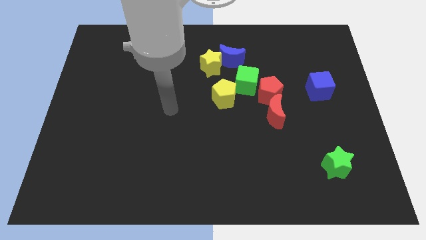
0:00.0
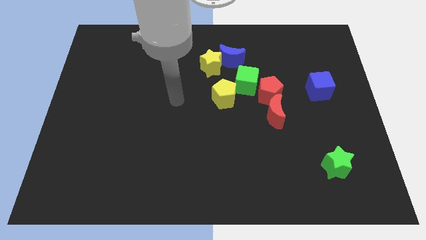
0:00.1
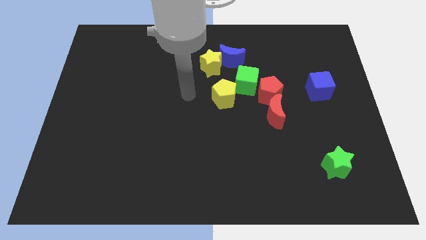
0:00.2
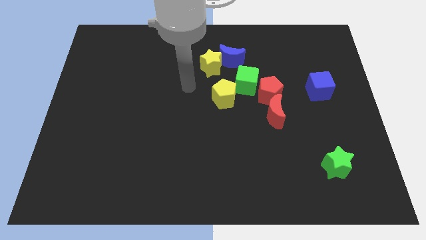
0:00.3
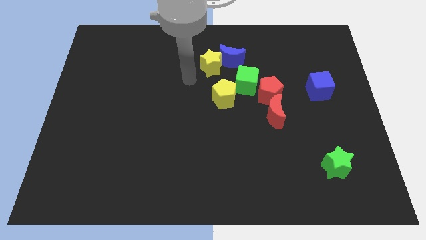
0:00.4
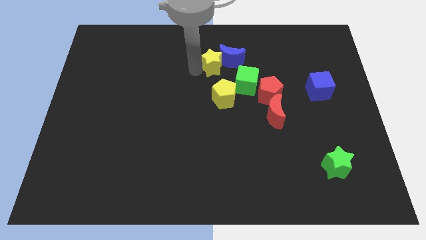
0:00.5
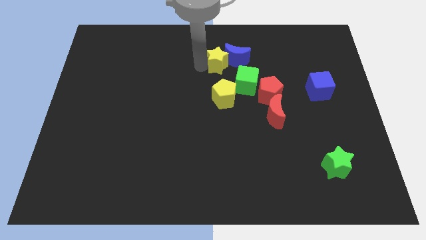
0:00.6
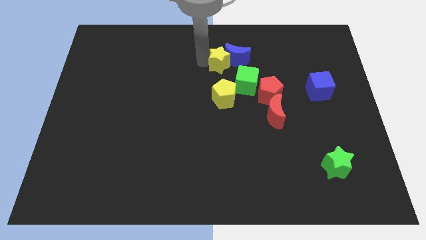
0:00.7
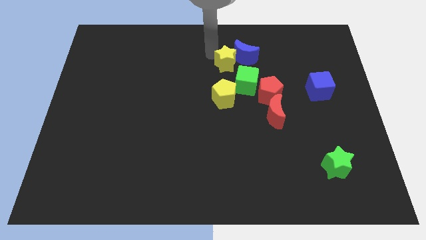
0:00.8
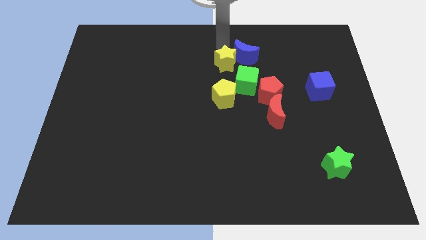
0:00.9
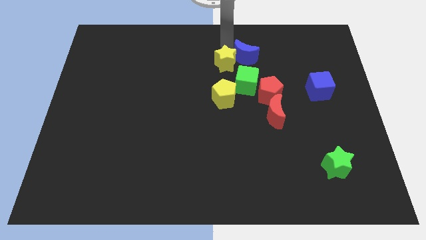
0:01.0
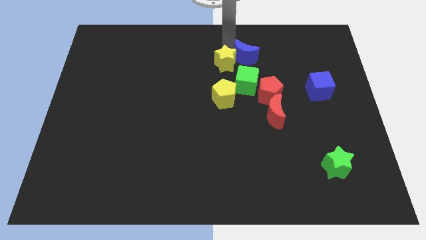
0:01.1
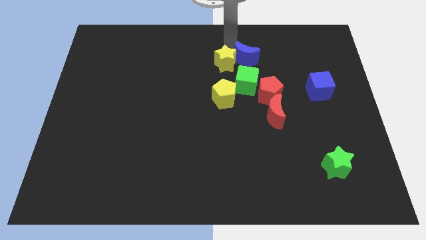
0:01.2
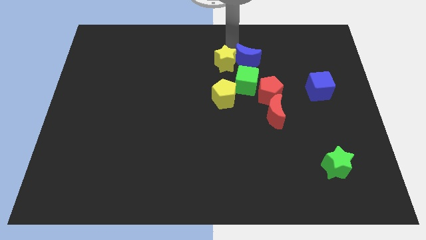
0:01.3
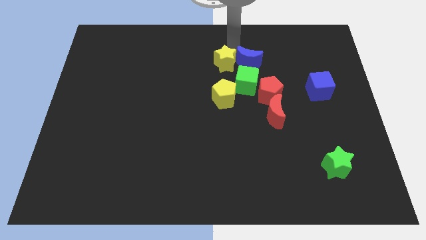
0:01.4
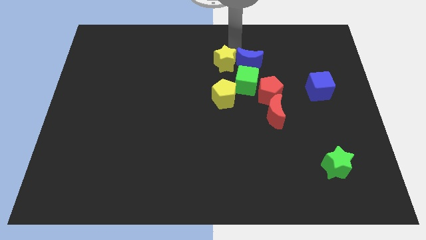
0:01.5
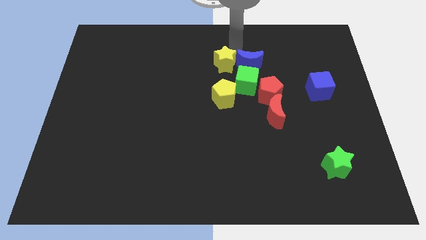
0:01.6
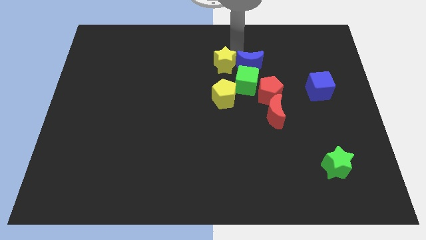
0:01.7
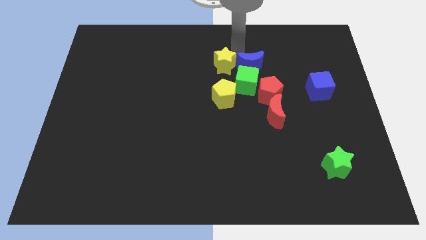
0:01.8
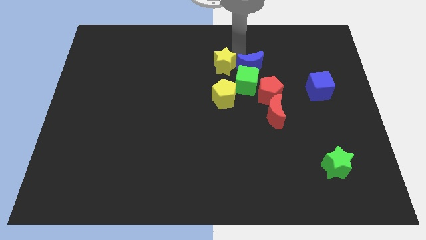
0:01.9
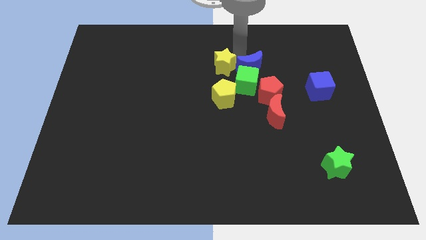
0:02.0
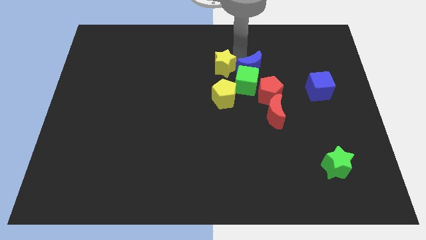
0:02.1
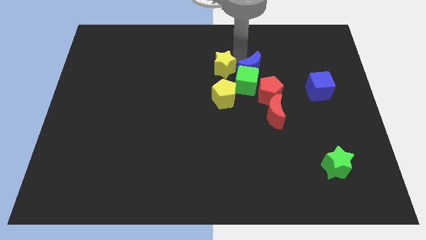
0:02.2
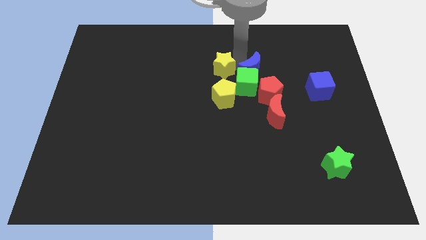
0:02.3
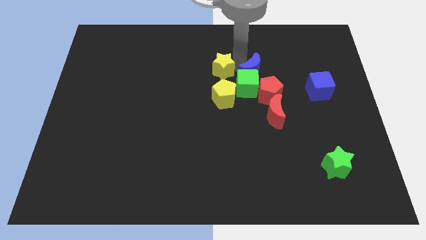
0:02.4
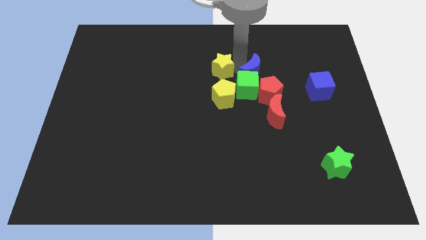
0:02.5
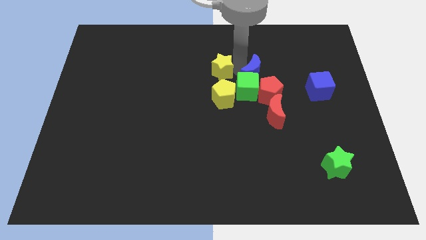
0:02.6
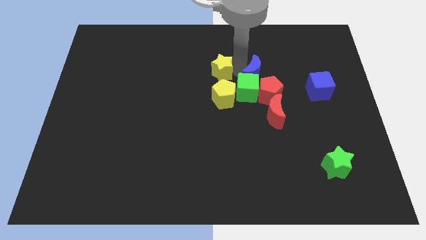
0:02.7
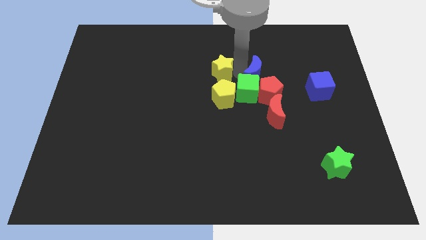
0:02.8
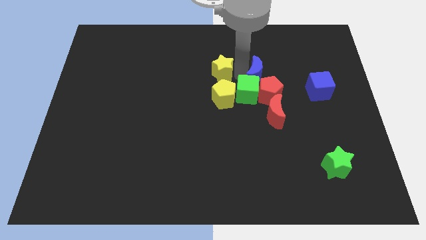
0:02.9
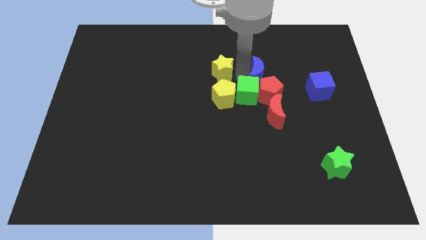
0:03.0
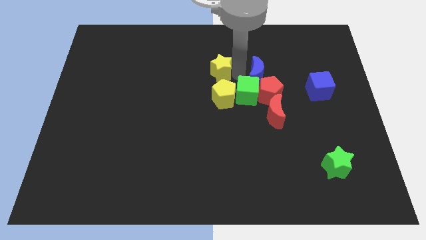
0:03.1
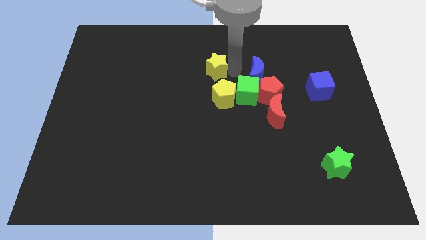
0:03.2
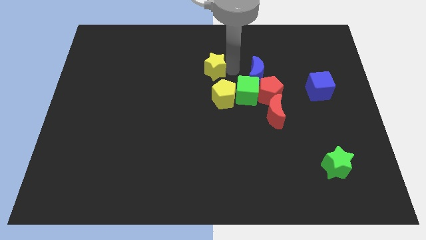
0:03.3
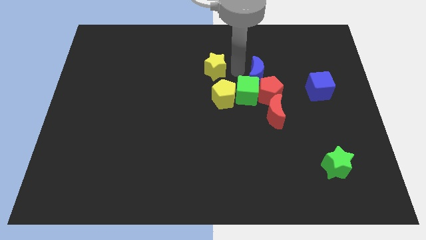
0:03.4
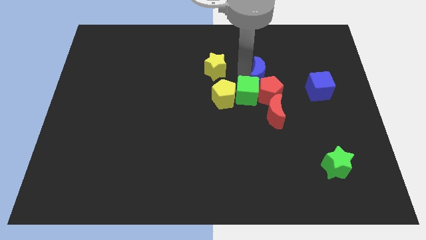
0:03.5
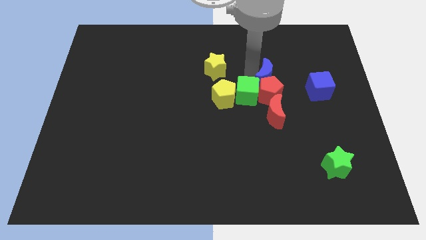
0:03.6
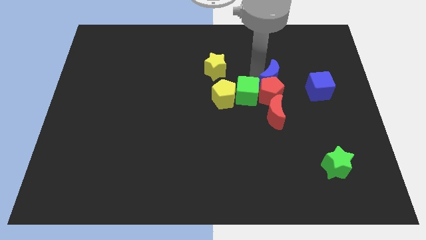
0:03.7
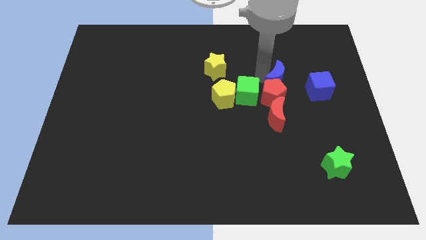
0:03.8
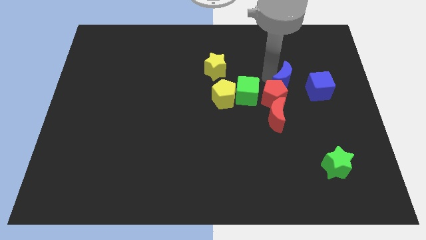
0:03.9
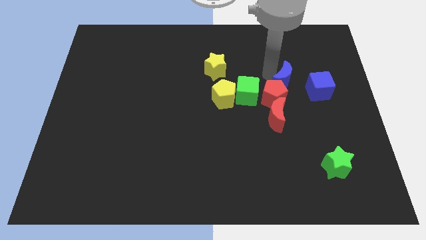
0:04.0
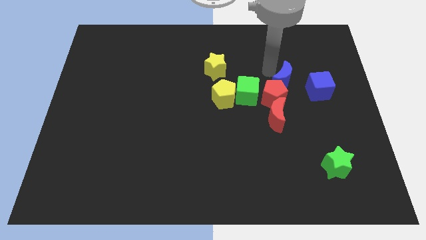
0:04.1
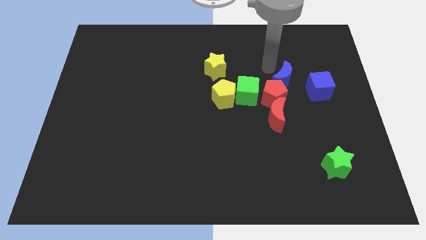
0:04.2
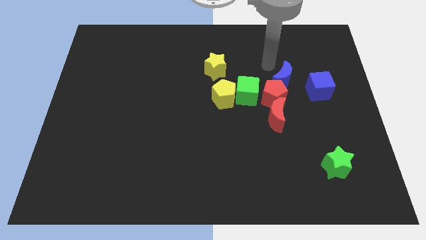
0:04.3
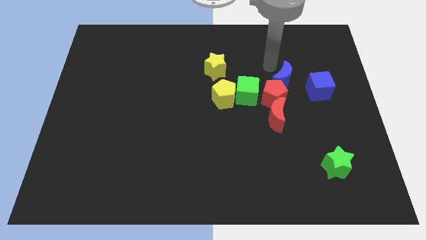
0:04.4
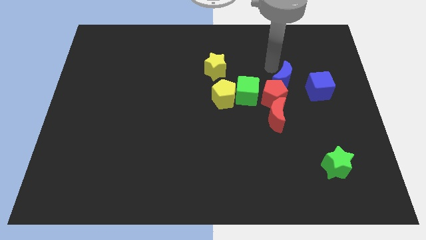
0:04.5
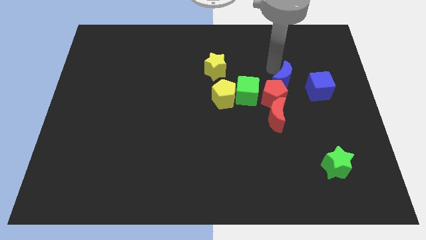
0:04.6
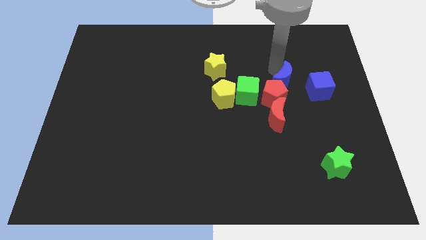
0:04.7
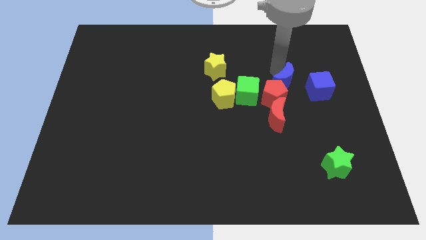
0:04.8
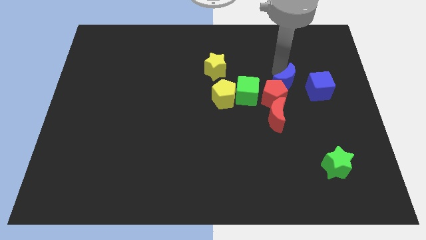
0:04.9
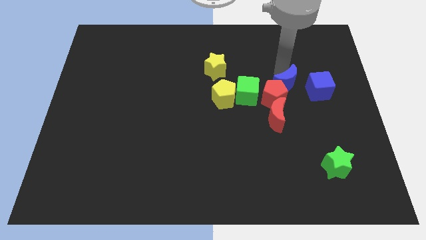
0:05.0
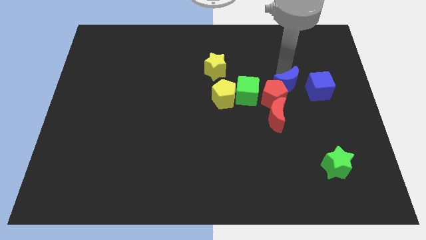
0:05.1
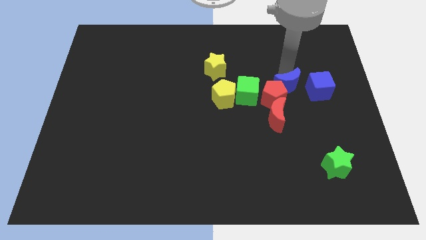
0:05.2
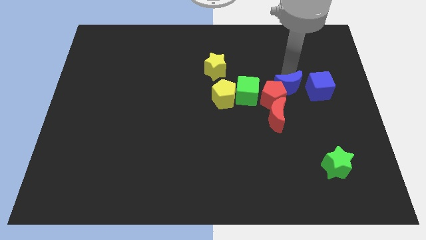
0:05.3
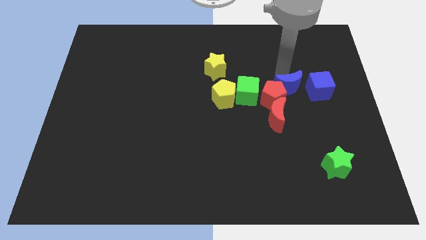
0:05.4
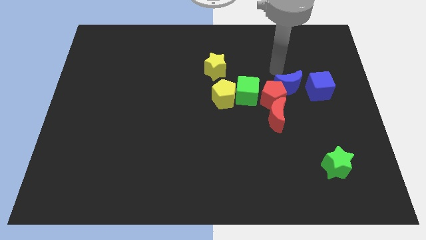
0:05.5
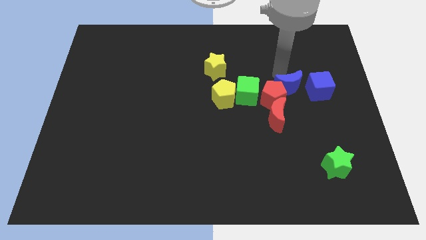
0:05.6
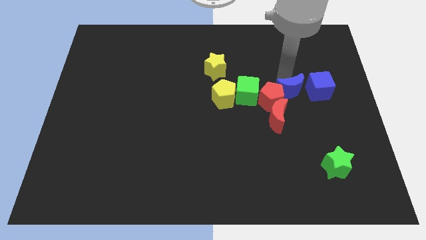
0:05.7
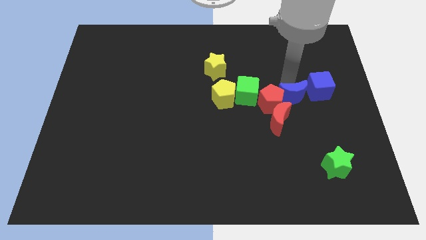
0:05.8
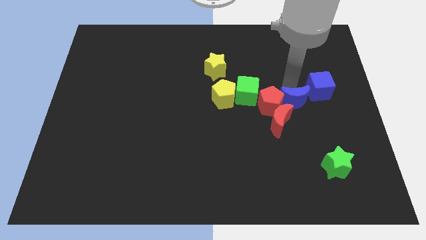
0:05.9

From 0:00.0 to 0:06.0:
move the blue moon down and then right

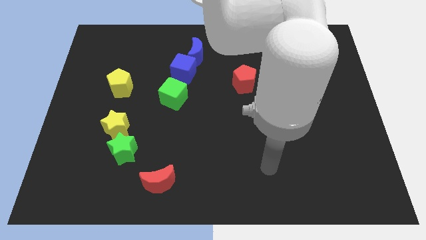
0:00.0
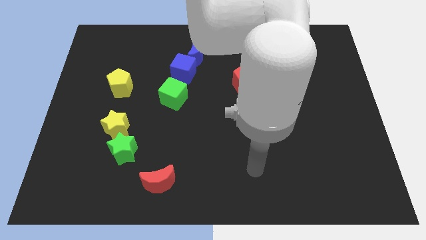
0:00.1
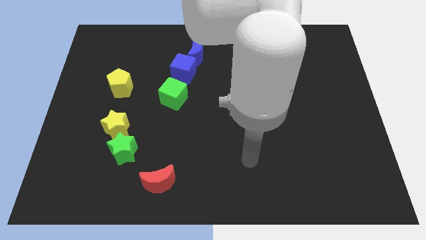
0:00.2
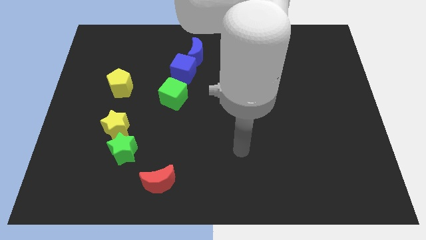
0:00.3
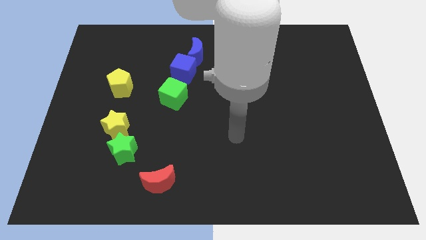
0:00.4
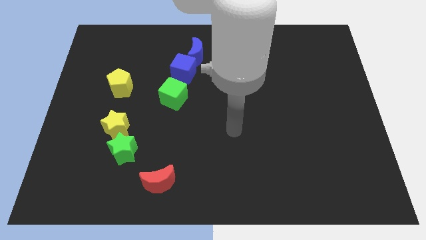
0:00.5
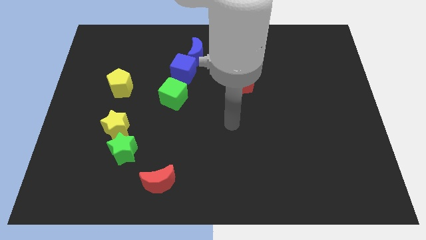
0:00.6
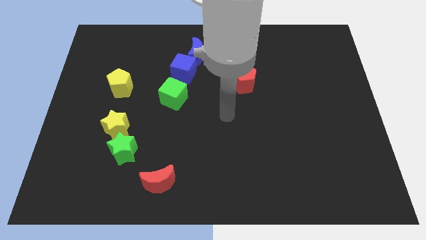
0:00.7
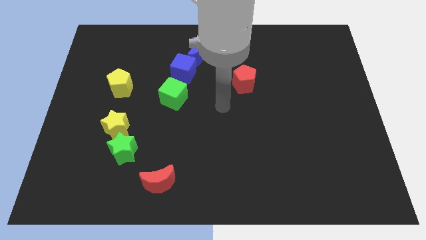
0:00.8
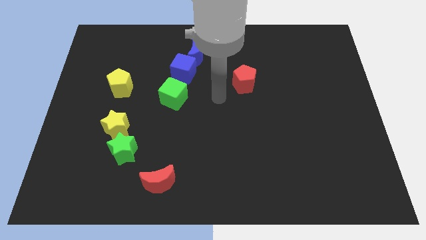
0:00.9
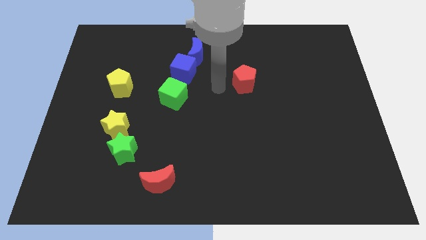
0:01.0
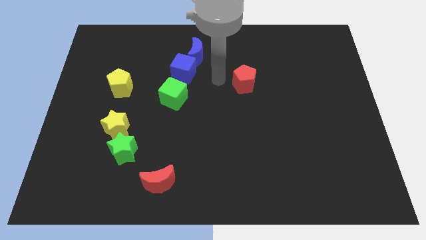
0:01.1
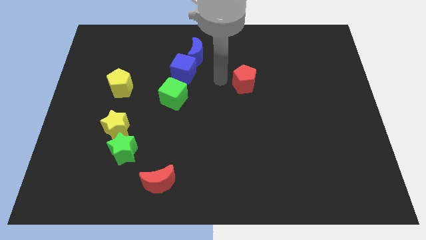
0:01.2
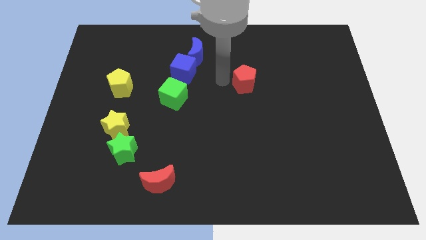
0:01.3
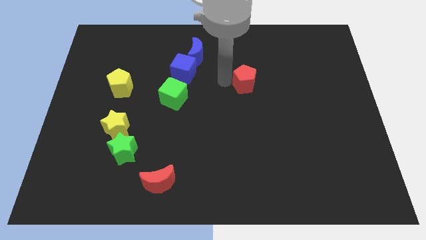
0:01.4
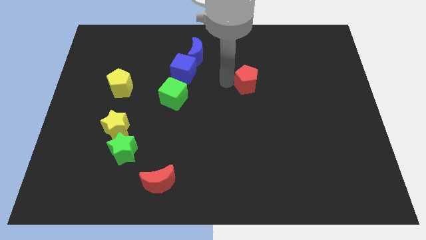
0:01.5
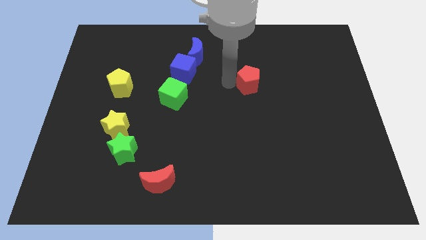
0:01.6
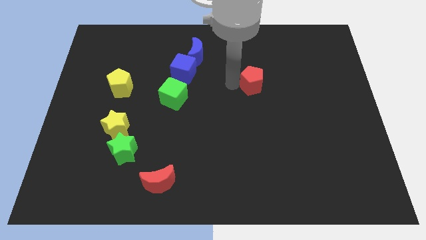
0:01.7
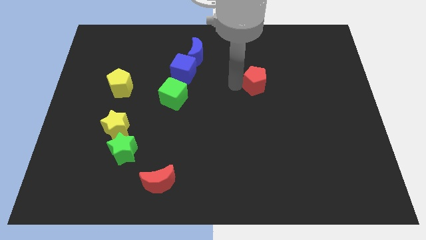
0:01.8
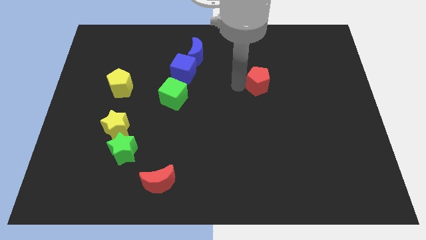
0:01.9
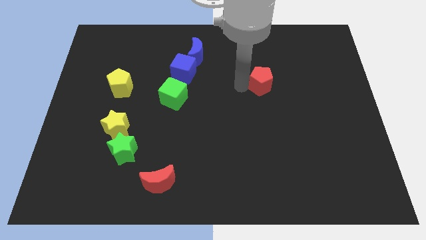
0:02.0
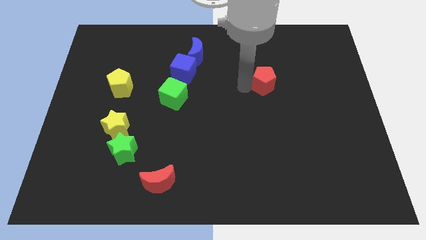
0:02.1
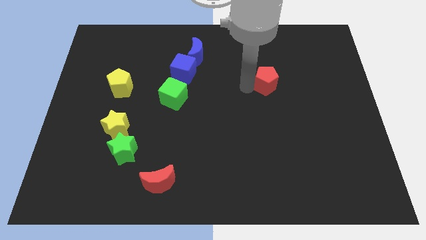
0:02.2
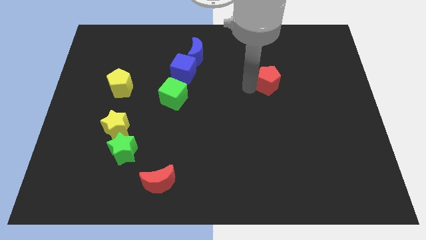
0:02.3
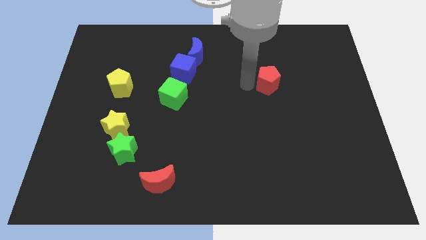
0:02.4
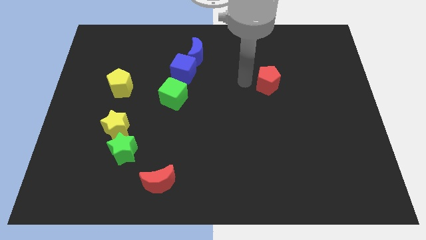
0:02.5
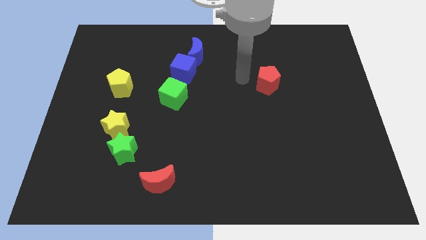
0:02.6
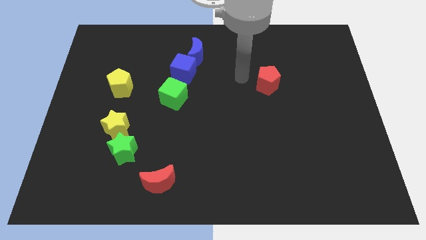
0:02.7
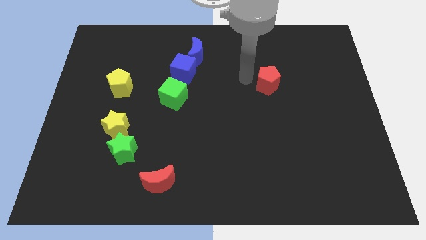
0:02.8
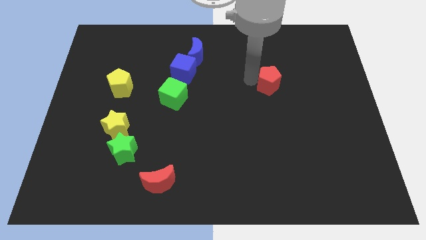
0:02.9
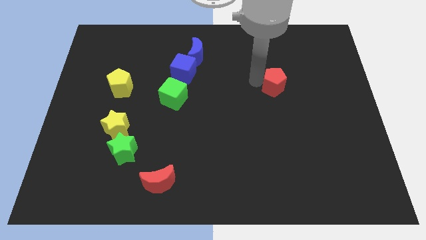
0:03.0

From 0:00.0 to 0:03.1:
move the red pentagon to the right slightly
